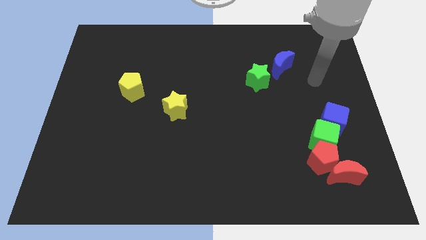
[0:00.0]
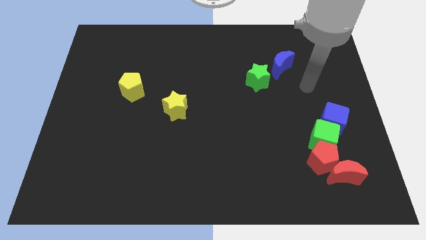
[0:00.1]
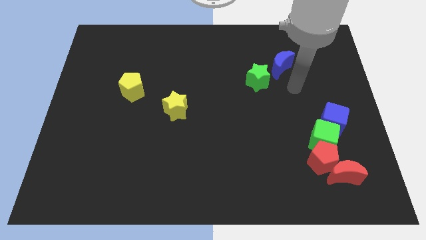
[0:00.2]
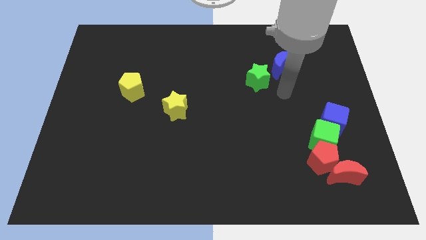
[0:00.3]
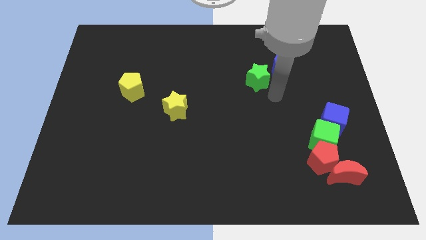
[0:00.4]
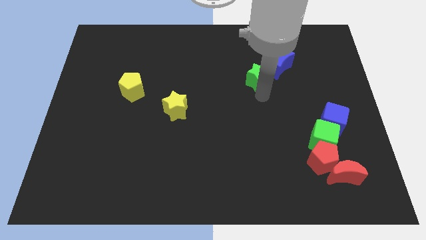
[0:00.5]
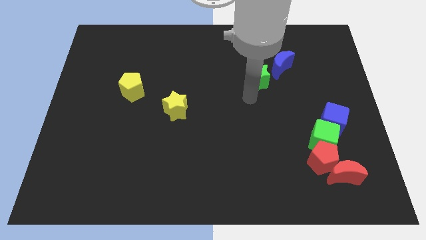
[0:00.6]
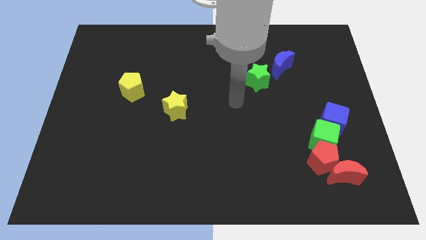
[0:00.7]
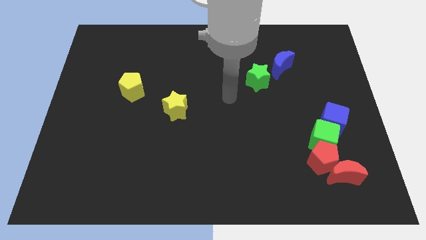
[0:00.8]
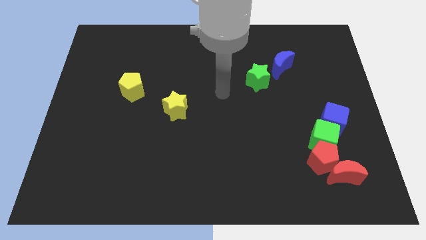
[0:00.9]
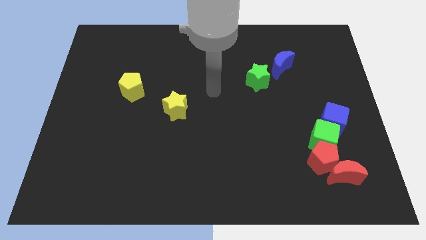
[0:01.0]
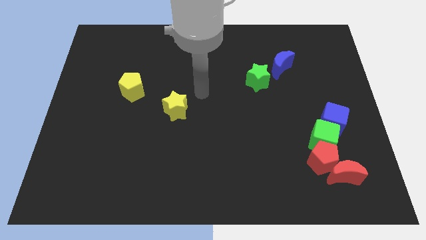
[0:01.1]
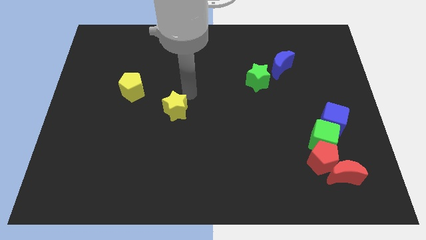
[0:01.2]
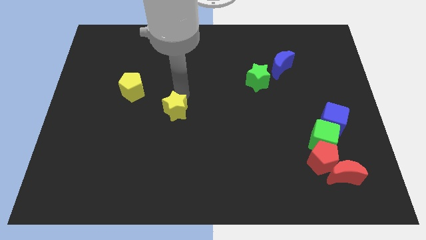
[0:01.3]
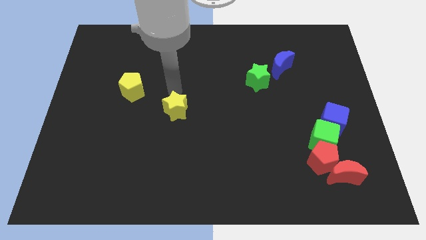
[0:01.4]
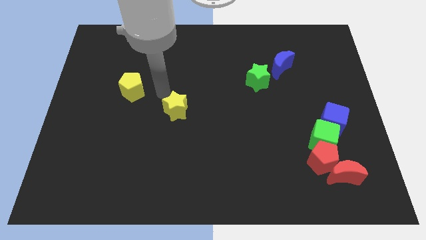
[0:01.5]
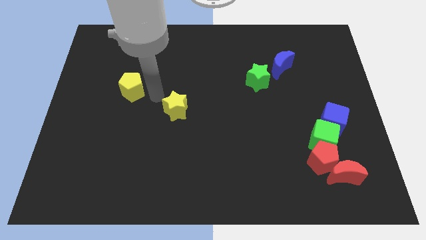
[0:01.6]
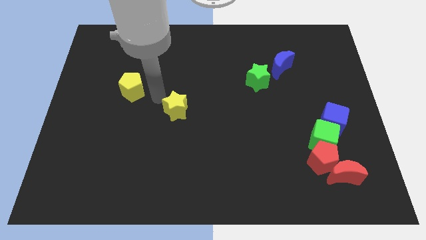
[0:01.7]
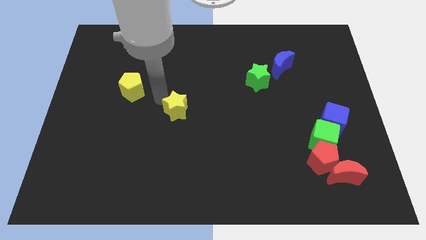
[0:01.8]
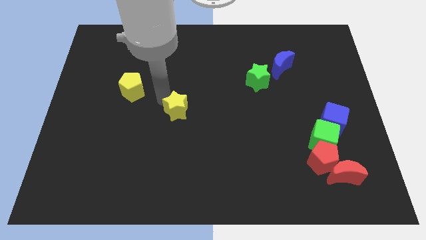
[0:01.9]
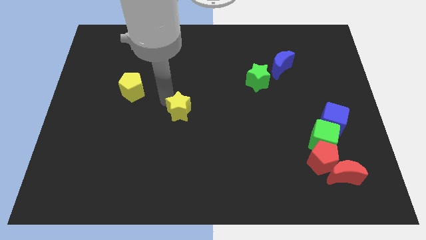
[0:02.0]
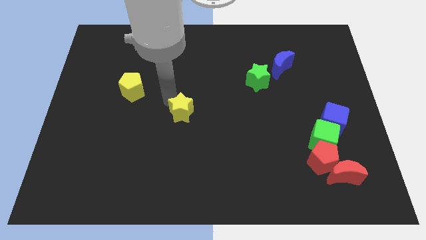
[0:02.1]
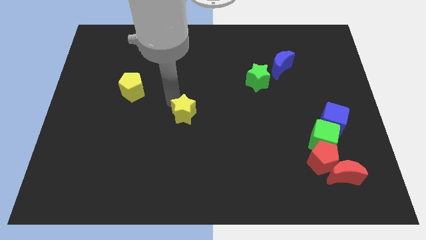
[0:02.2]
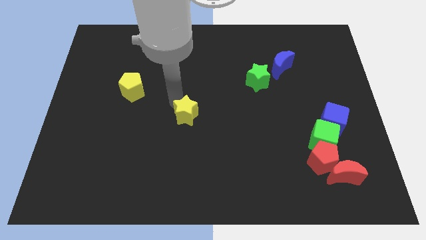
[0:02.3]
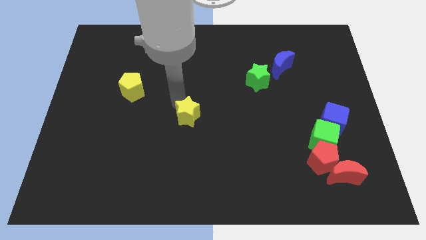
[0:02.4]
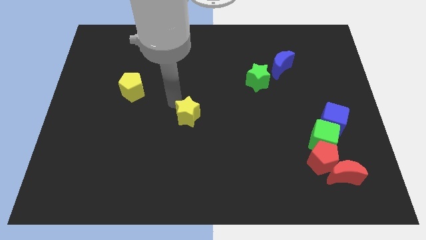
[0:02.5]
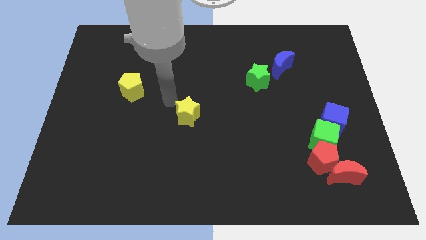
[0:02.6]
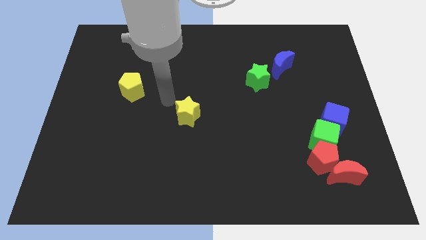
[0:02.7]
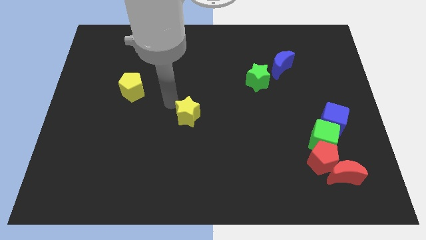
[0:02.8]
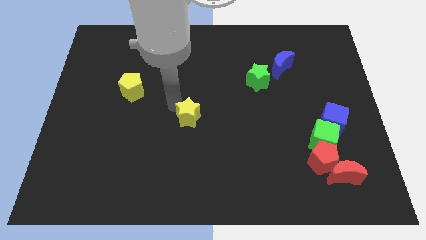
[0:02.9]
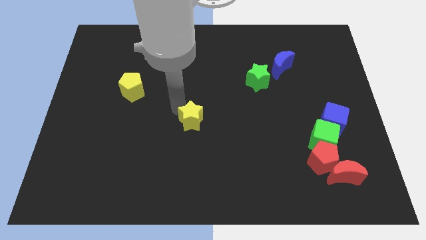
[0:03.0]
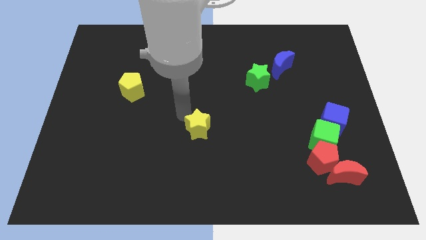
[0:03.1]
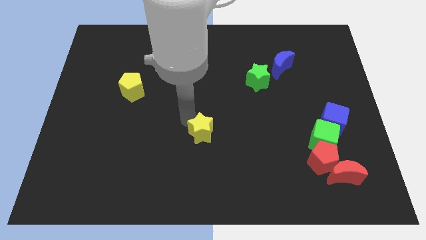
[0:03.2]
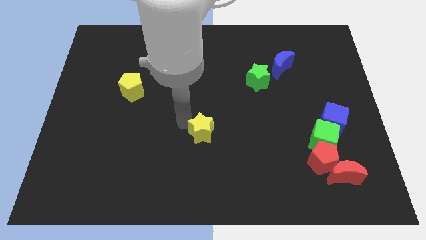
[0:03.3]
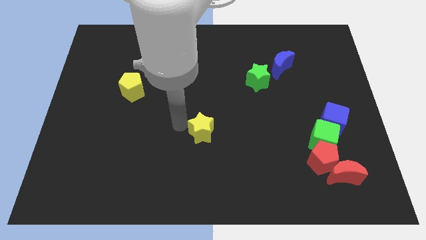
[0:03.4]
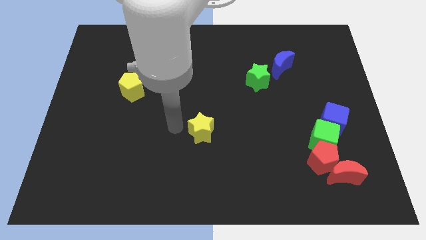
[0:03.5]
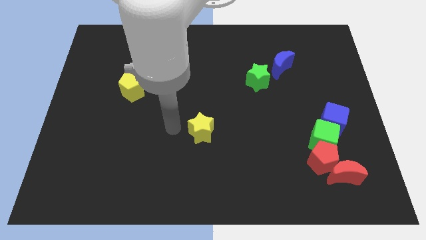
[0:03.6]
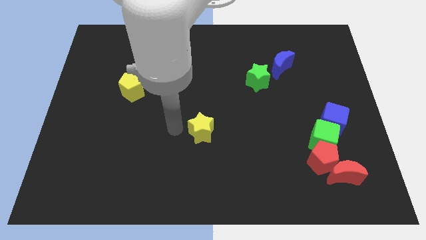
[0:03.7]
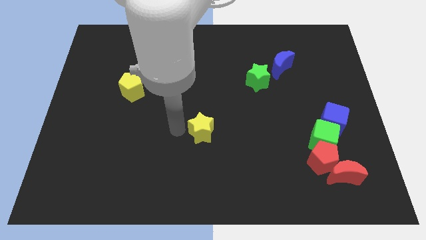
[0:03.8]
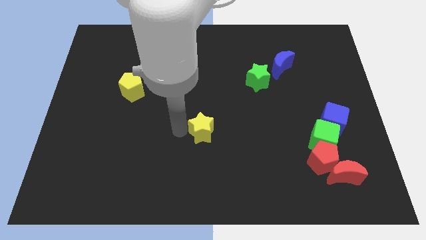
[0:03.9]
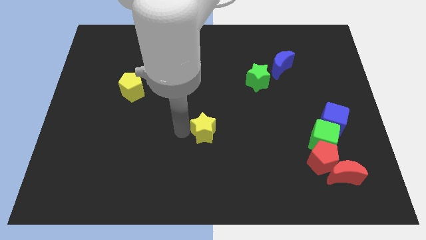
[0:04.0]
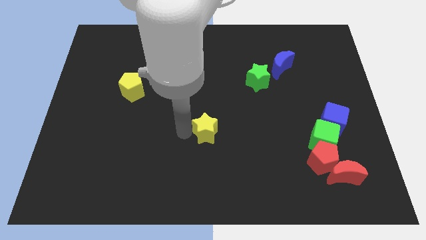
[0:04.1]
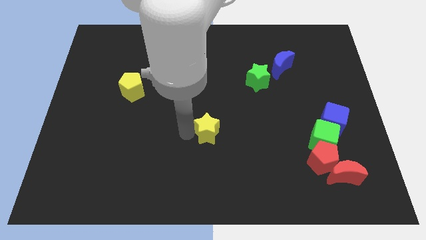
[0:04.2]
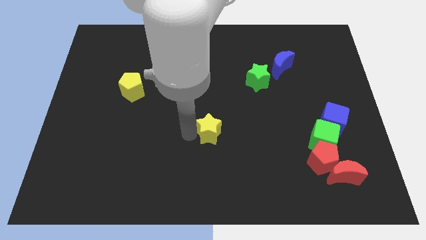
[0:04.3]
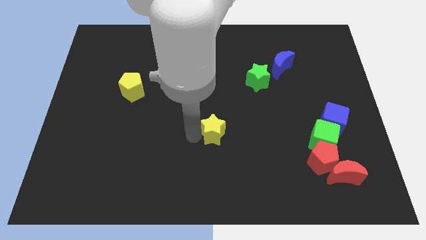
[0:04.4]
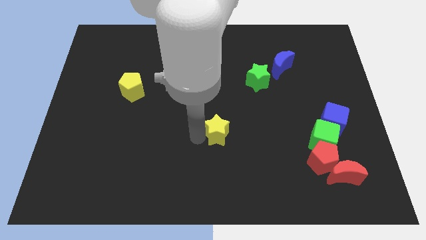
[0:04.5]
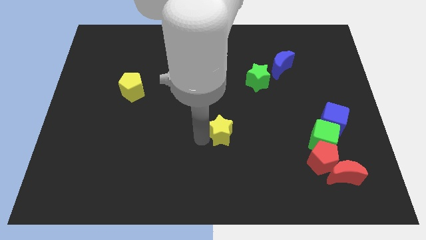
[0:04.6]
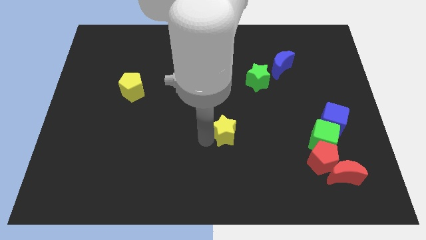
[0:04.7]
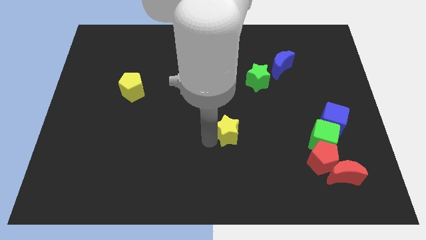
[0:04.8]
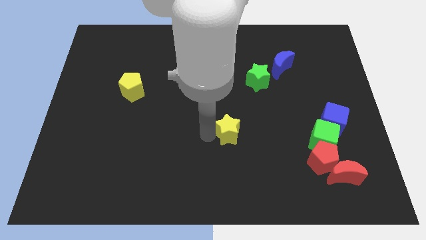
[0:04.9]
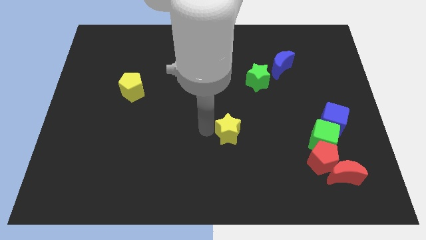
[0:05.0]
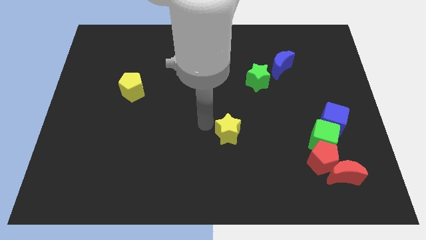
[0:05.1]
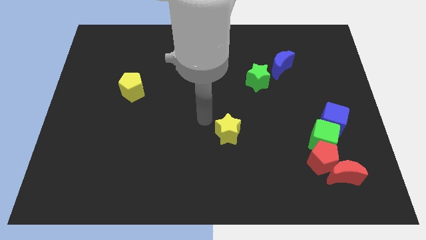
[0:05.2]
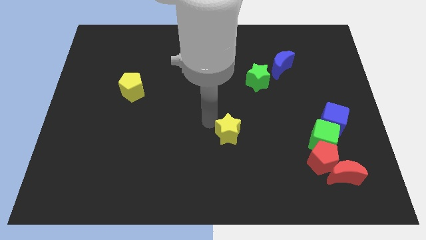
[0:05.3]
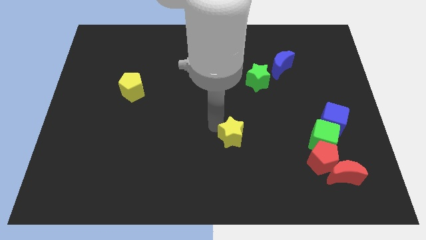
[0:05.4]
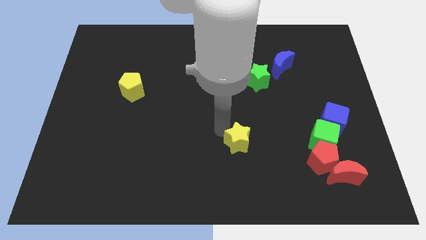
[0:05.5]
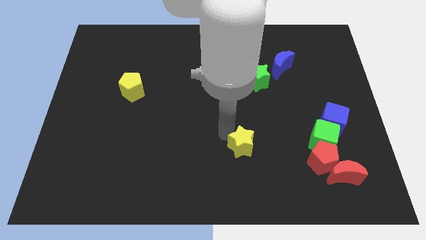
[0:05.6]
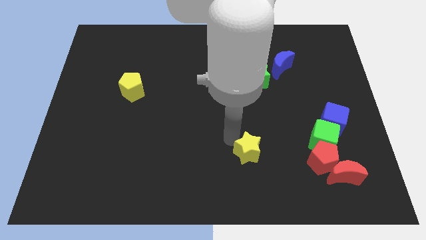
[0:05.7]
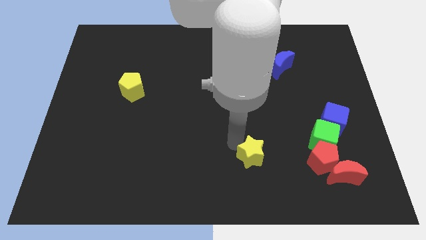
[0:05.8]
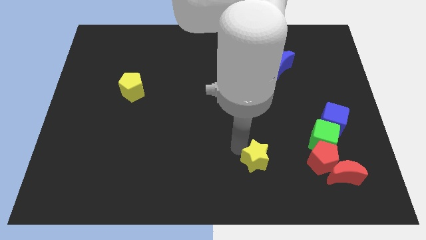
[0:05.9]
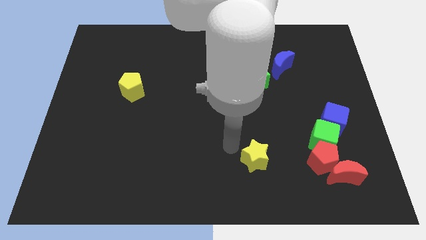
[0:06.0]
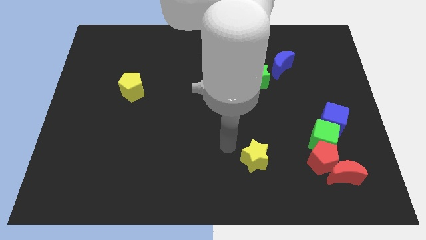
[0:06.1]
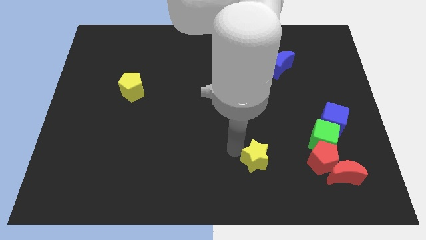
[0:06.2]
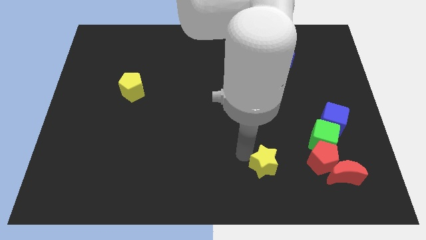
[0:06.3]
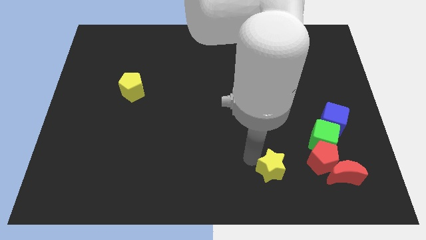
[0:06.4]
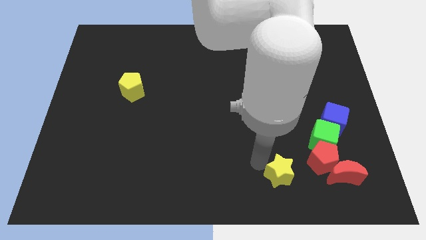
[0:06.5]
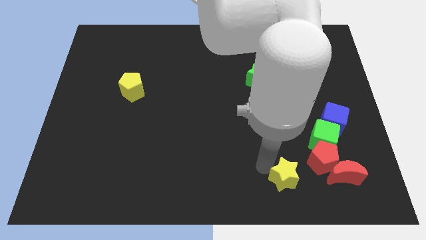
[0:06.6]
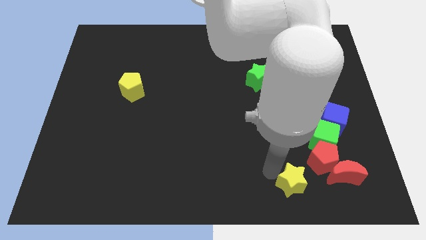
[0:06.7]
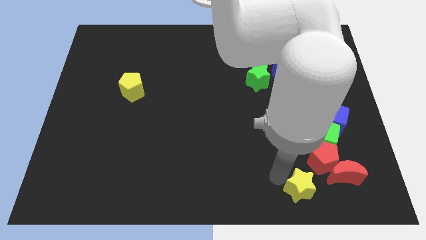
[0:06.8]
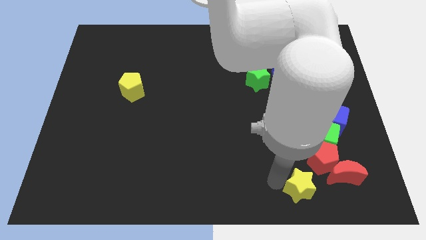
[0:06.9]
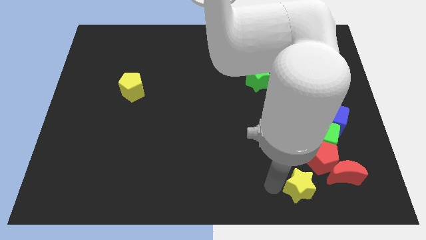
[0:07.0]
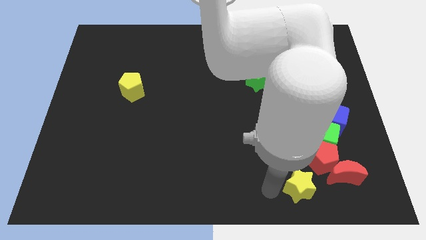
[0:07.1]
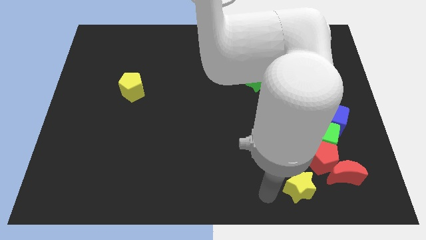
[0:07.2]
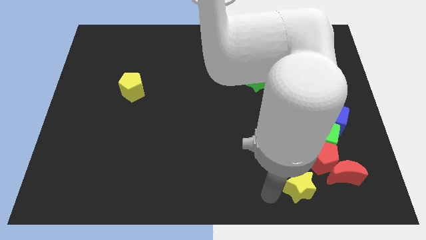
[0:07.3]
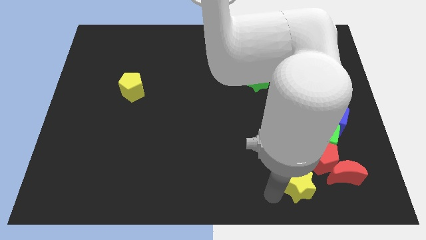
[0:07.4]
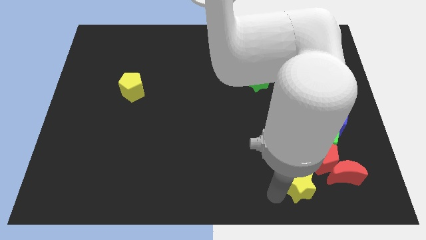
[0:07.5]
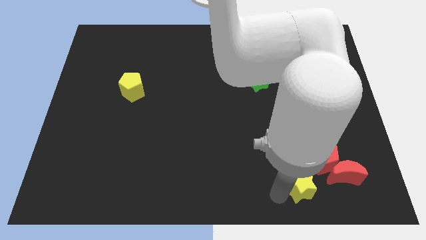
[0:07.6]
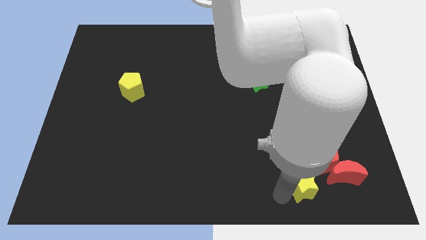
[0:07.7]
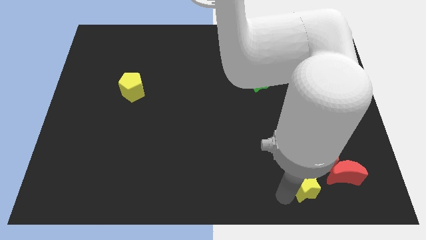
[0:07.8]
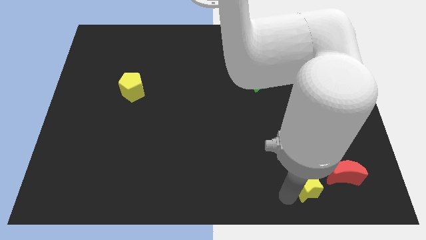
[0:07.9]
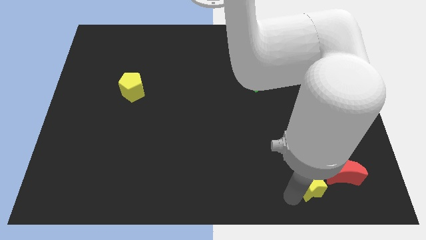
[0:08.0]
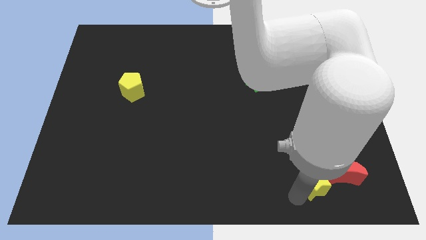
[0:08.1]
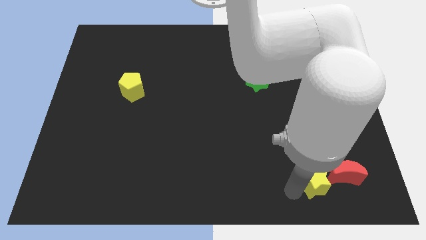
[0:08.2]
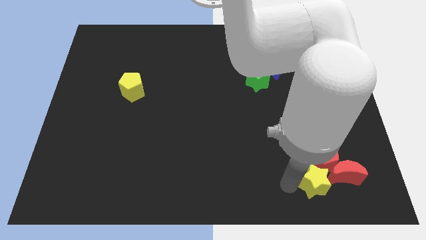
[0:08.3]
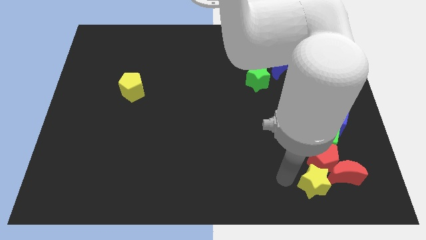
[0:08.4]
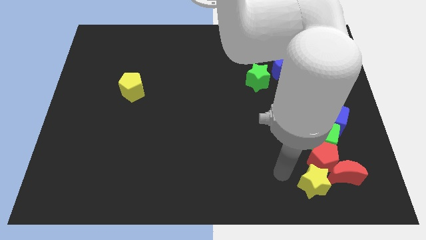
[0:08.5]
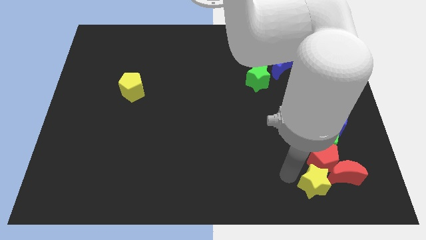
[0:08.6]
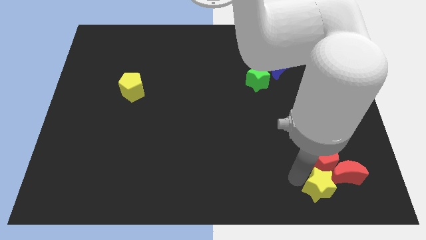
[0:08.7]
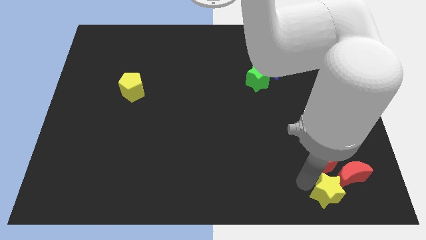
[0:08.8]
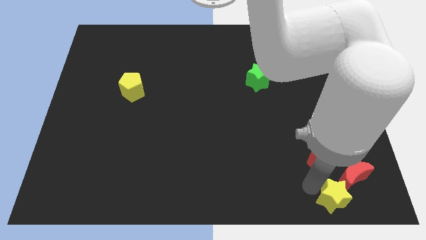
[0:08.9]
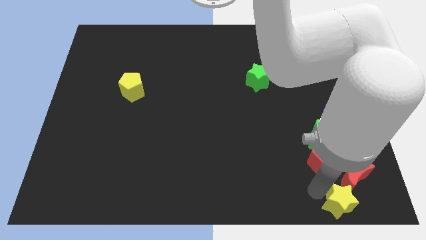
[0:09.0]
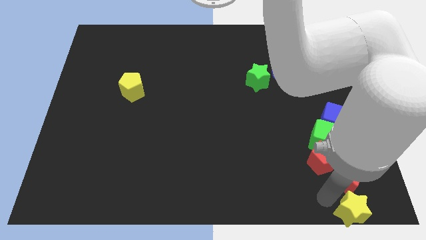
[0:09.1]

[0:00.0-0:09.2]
put the yellow star to the bottom right
